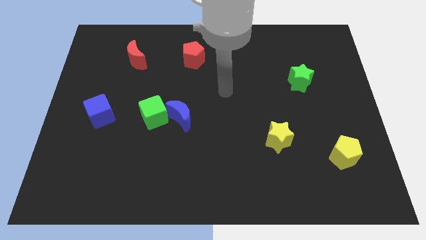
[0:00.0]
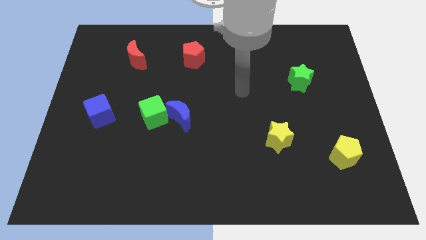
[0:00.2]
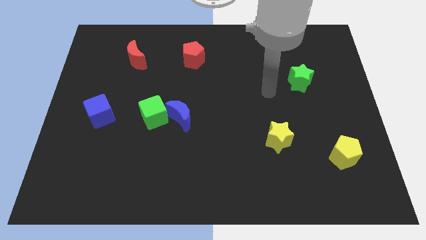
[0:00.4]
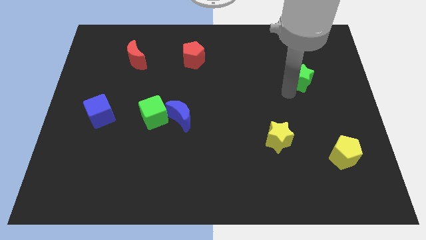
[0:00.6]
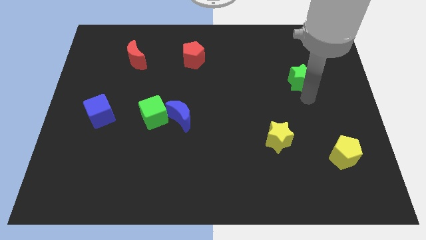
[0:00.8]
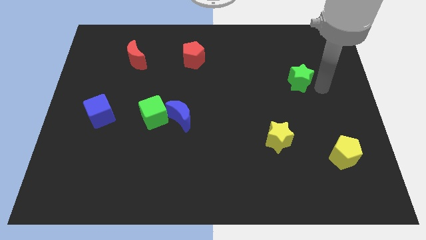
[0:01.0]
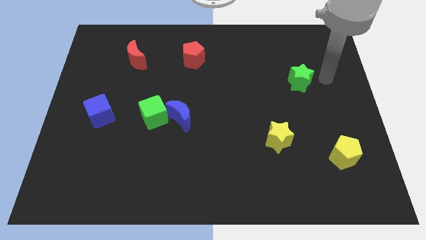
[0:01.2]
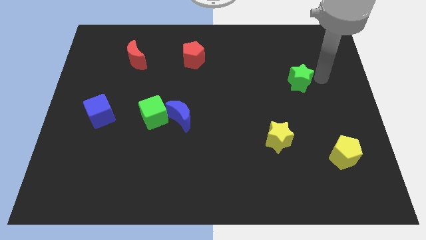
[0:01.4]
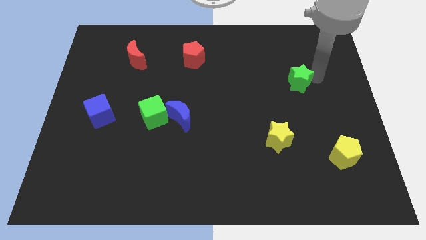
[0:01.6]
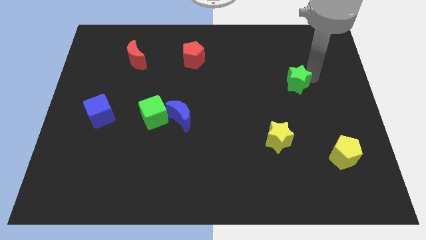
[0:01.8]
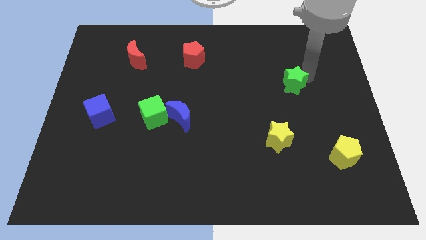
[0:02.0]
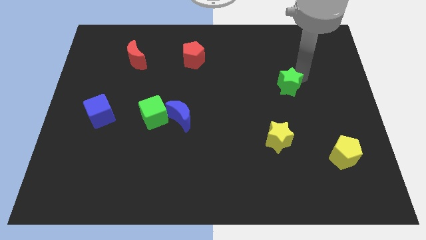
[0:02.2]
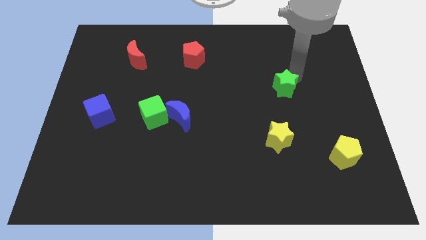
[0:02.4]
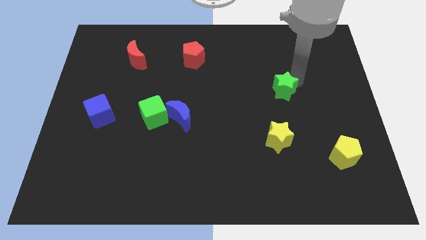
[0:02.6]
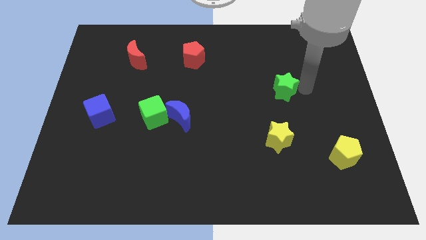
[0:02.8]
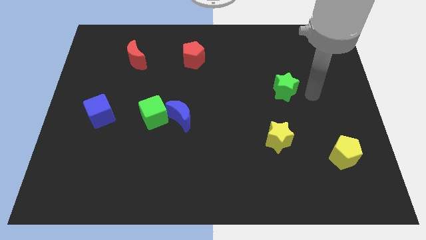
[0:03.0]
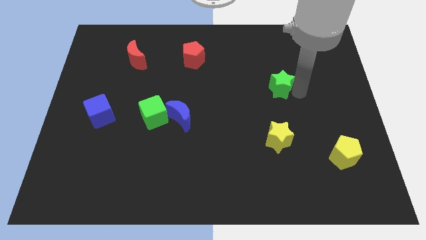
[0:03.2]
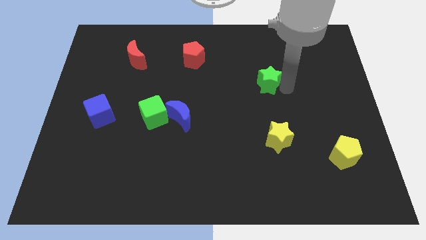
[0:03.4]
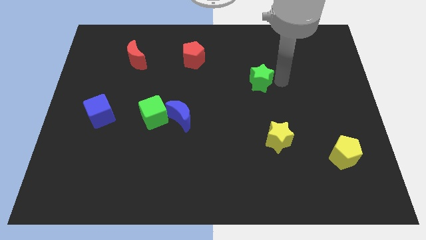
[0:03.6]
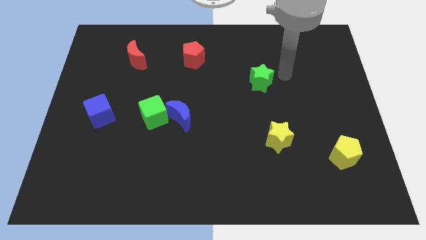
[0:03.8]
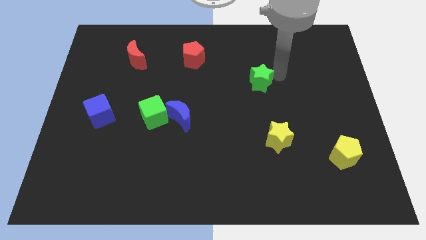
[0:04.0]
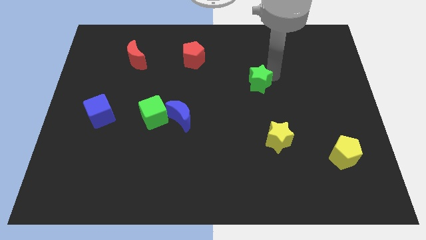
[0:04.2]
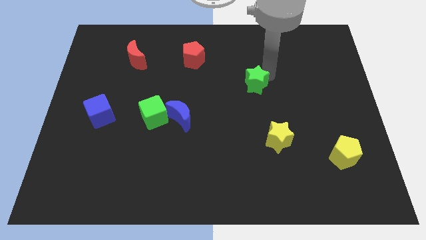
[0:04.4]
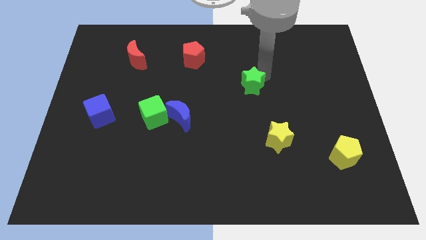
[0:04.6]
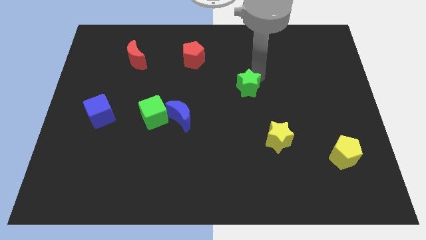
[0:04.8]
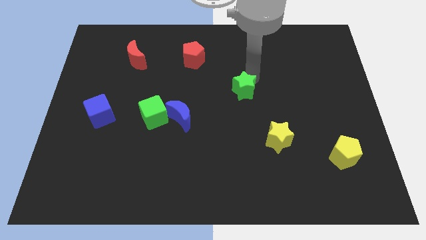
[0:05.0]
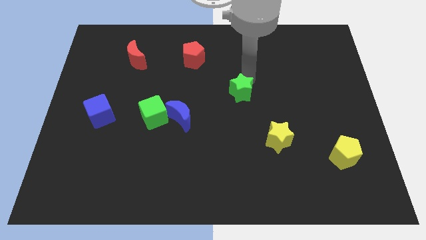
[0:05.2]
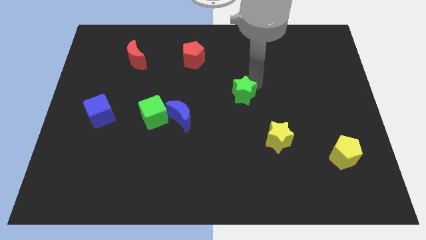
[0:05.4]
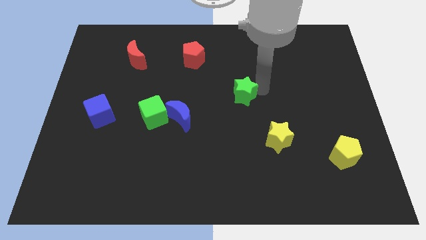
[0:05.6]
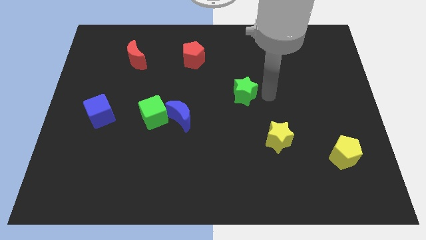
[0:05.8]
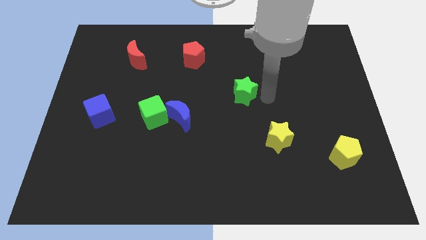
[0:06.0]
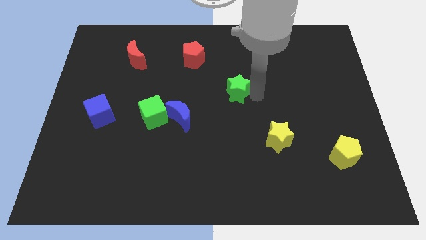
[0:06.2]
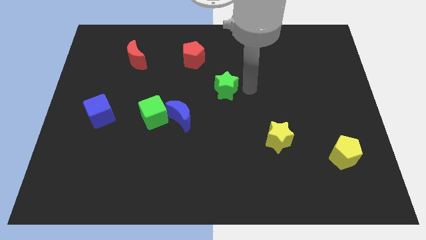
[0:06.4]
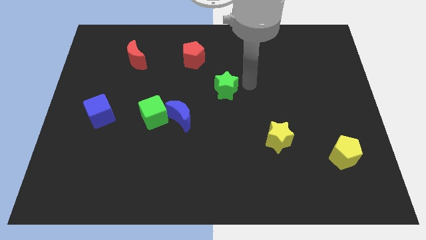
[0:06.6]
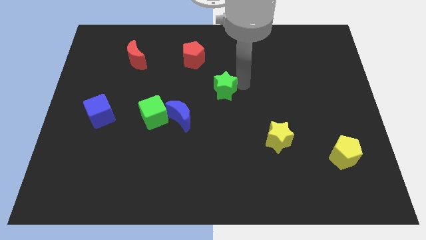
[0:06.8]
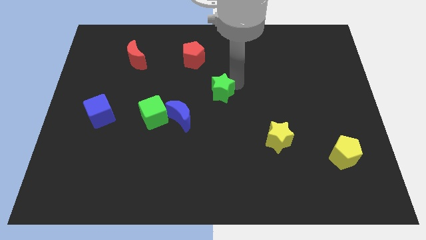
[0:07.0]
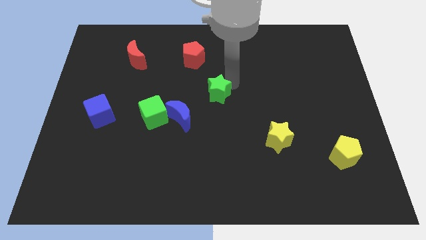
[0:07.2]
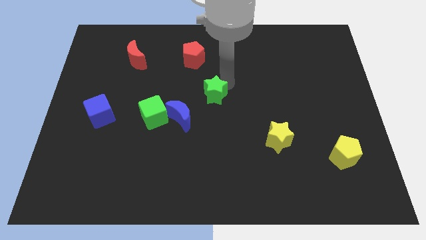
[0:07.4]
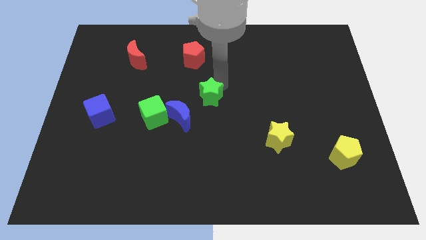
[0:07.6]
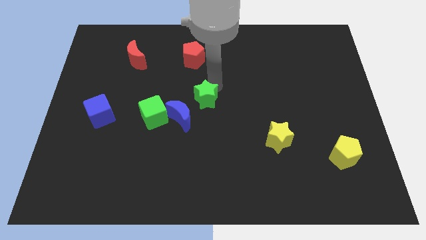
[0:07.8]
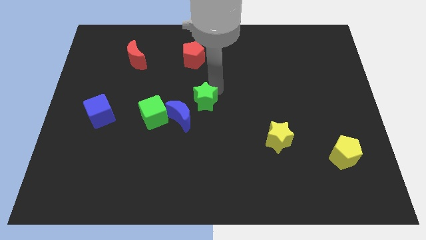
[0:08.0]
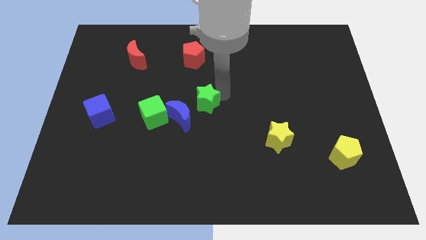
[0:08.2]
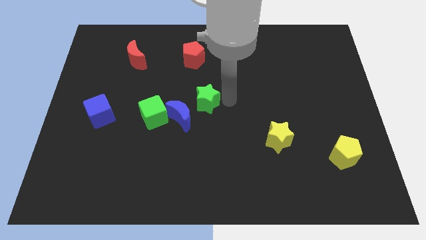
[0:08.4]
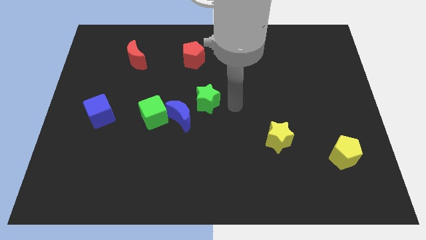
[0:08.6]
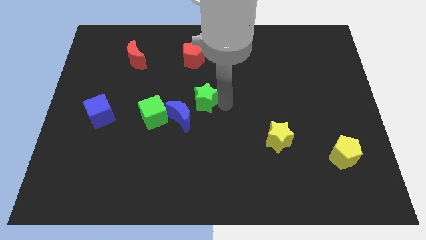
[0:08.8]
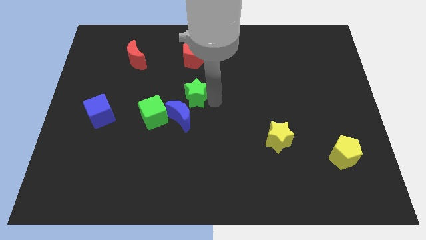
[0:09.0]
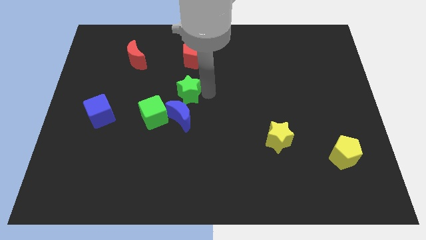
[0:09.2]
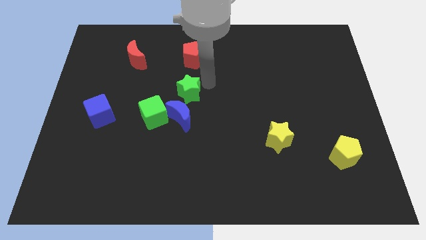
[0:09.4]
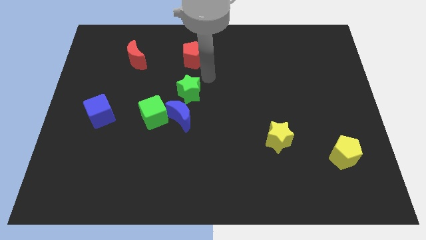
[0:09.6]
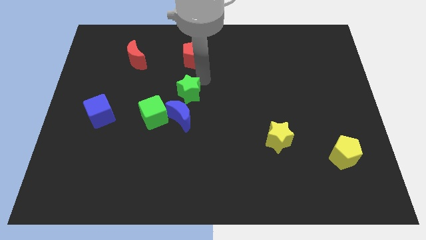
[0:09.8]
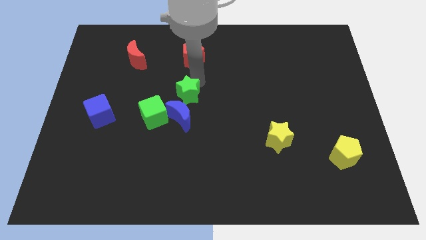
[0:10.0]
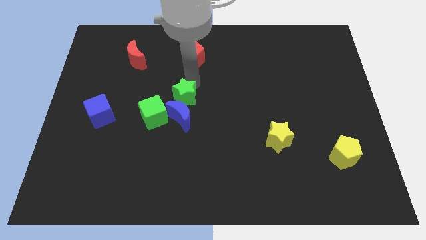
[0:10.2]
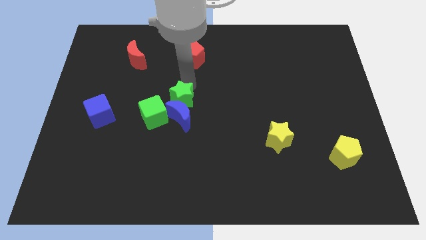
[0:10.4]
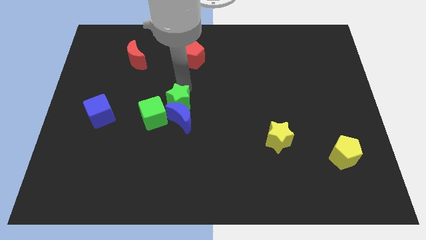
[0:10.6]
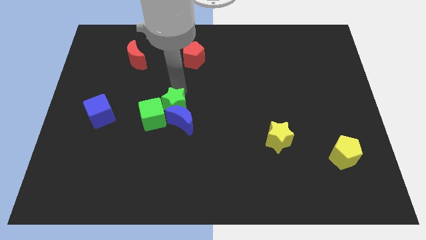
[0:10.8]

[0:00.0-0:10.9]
put the green star next to the green cube

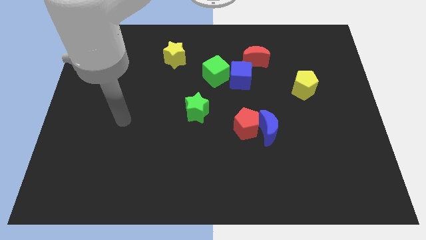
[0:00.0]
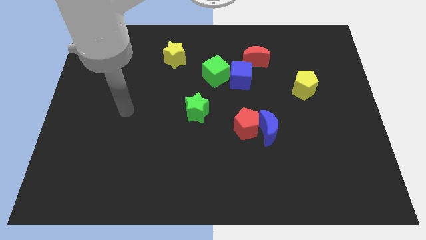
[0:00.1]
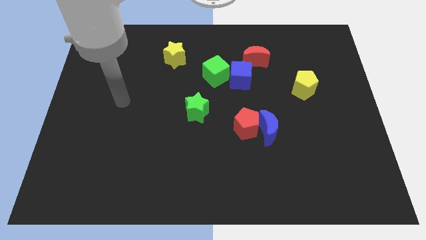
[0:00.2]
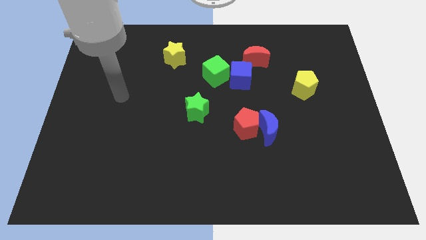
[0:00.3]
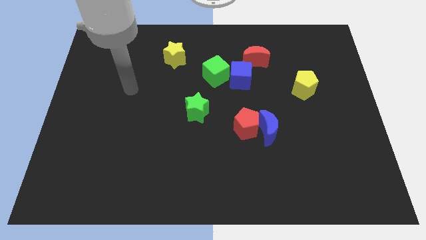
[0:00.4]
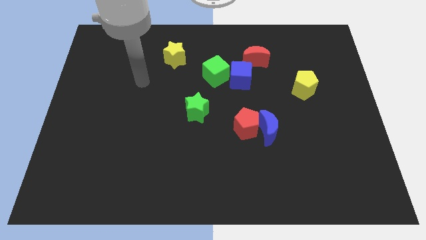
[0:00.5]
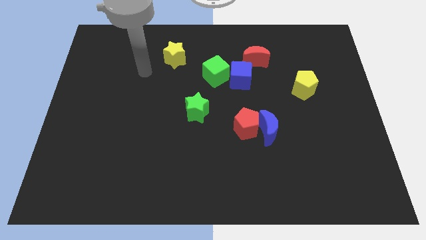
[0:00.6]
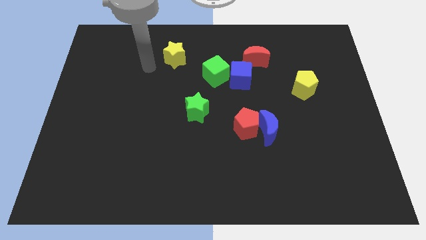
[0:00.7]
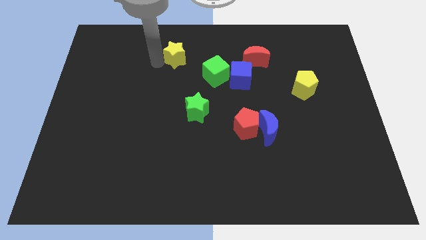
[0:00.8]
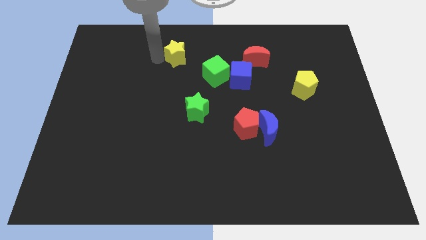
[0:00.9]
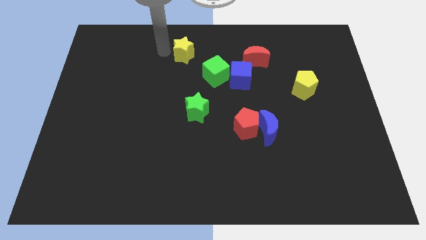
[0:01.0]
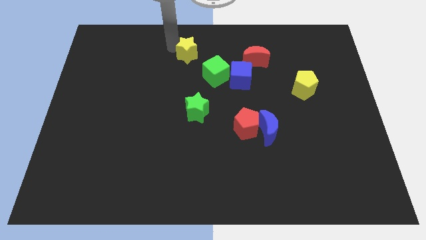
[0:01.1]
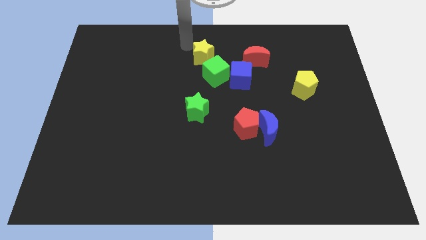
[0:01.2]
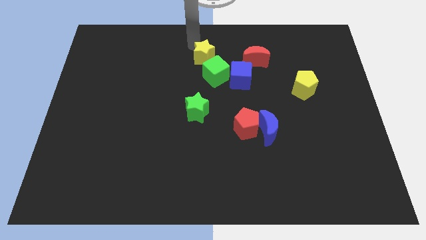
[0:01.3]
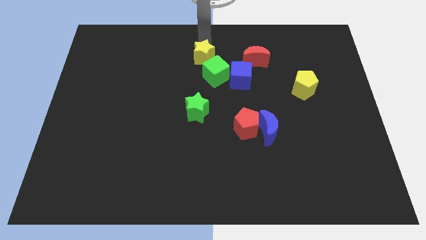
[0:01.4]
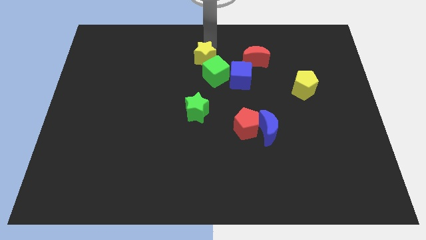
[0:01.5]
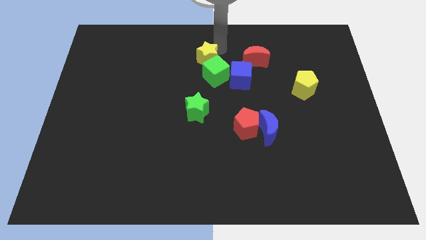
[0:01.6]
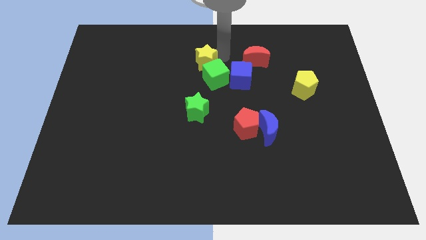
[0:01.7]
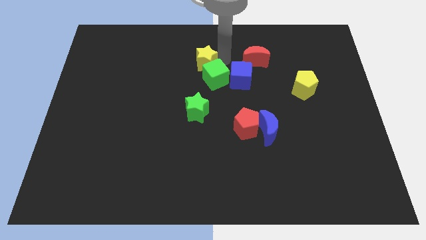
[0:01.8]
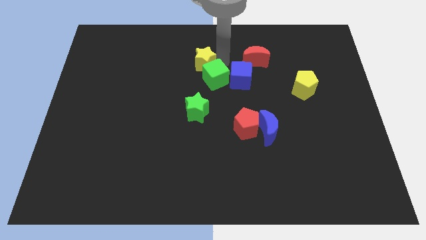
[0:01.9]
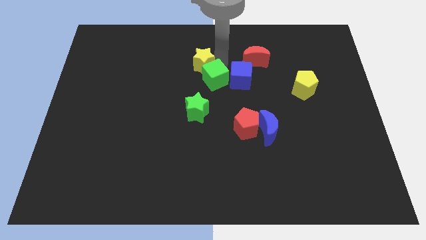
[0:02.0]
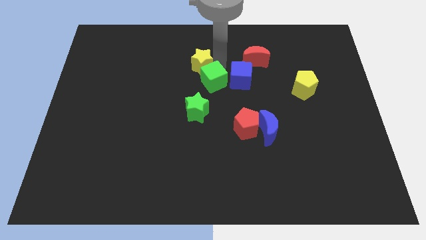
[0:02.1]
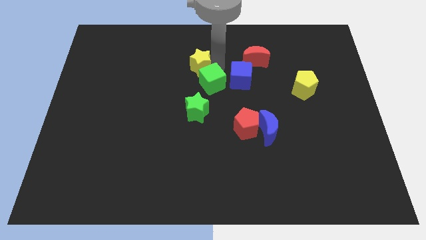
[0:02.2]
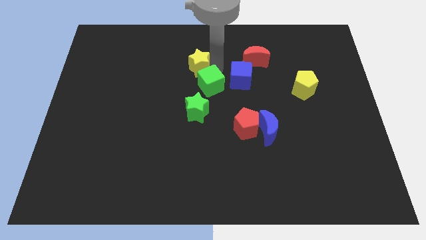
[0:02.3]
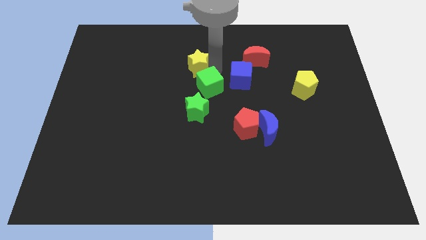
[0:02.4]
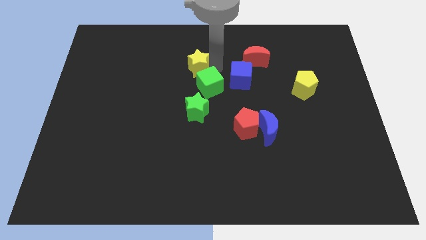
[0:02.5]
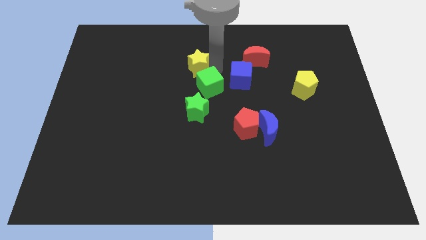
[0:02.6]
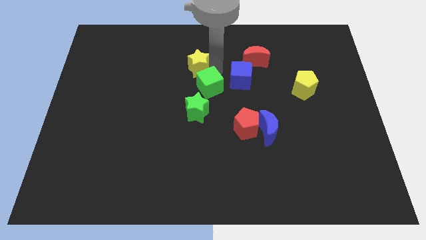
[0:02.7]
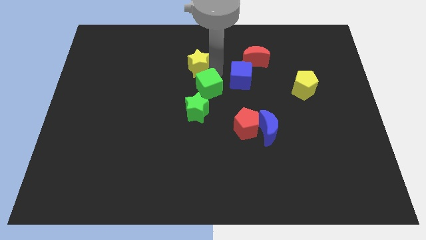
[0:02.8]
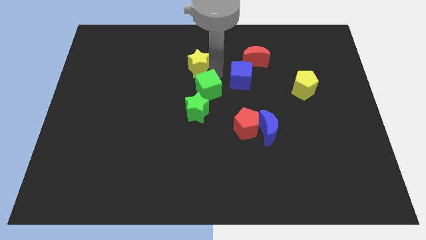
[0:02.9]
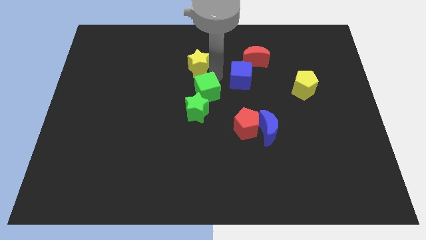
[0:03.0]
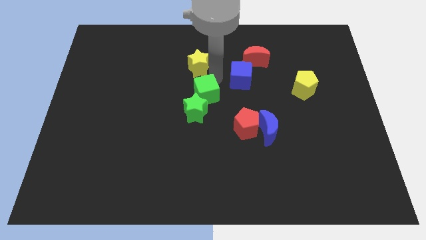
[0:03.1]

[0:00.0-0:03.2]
slide the green cube towards the green star
